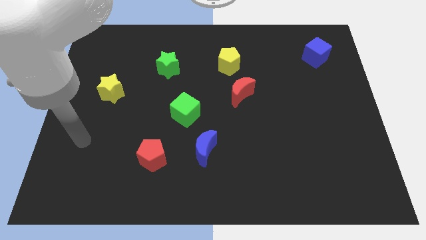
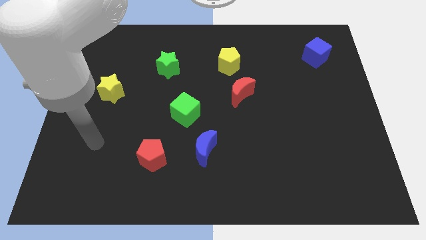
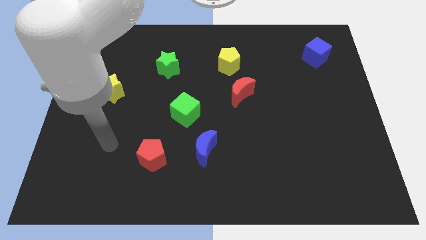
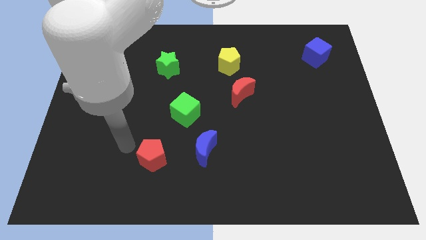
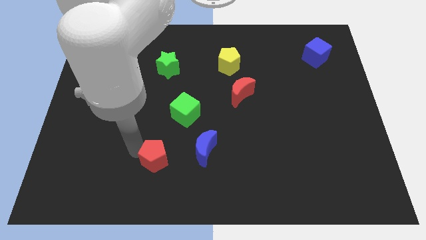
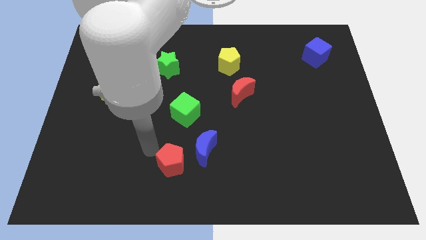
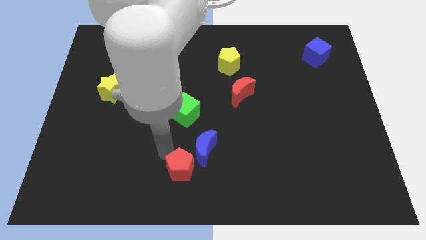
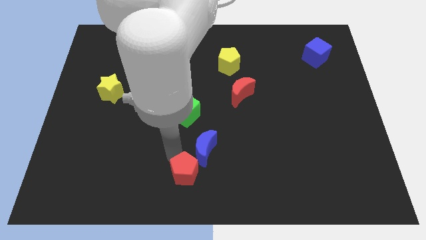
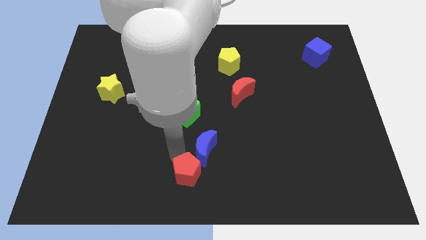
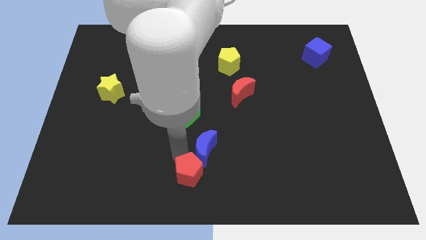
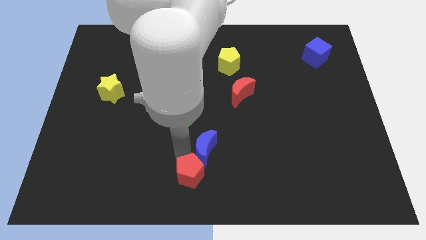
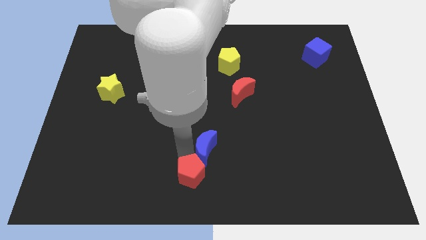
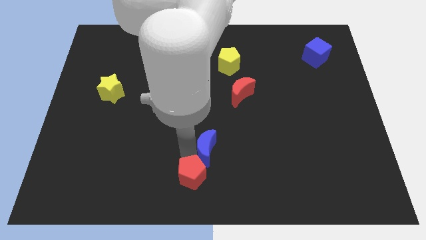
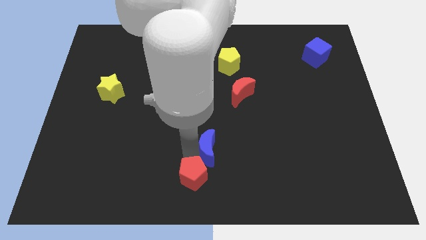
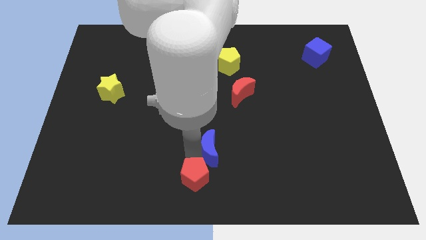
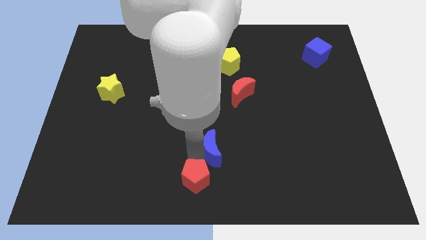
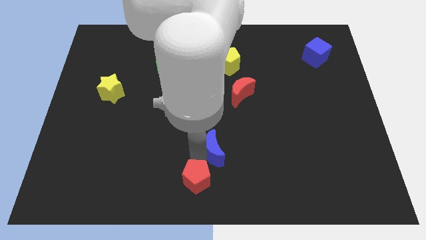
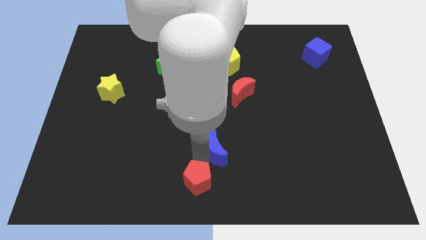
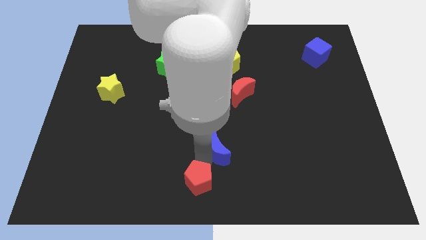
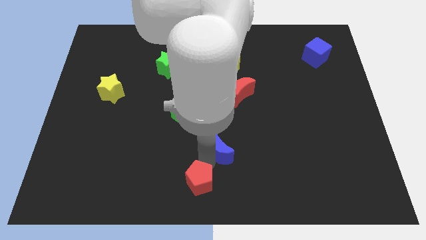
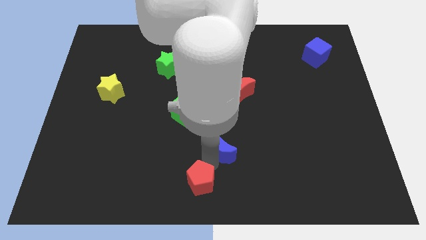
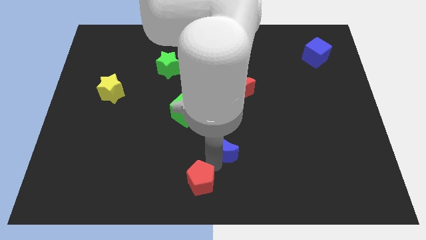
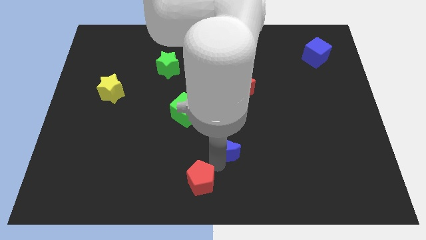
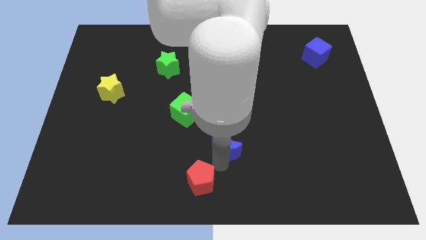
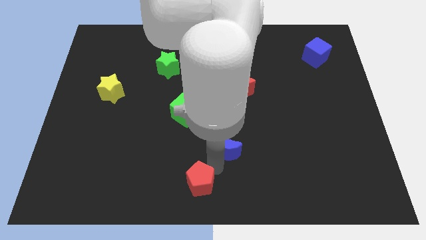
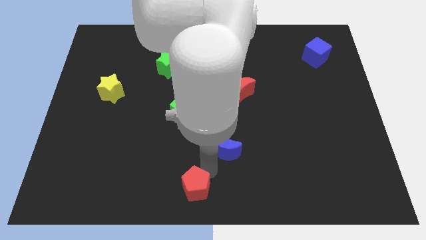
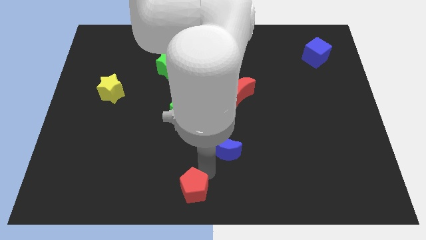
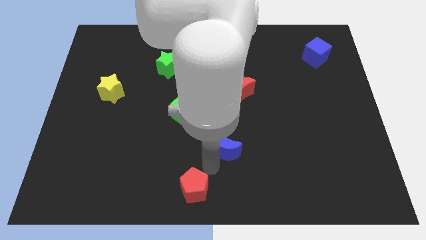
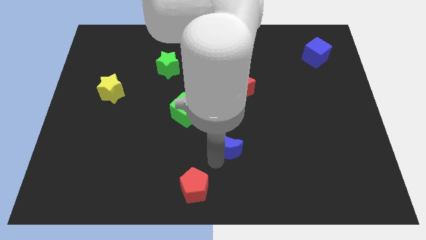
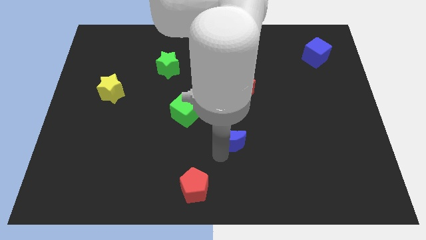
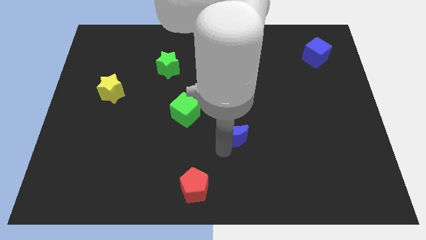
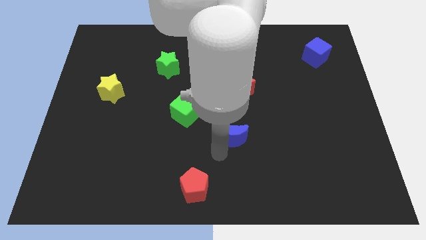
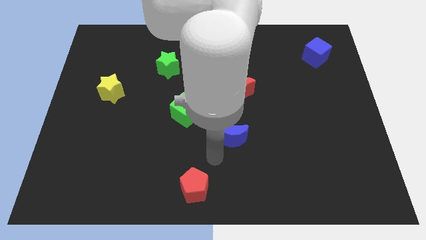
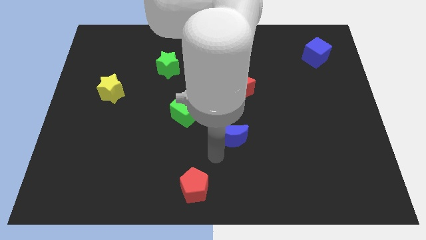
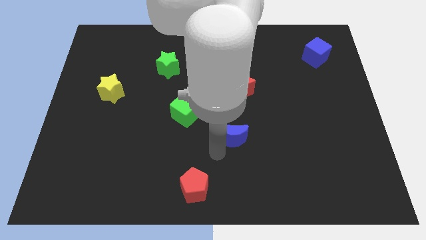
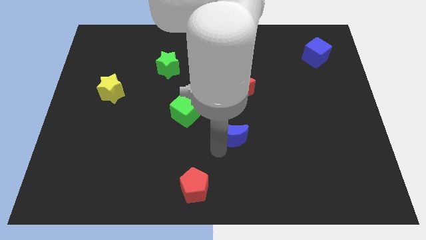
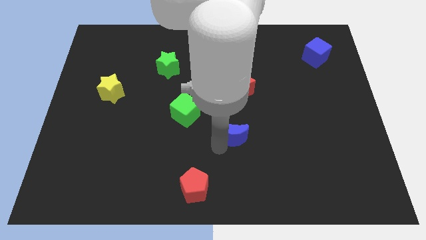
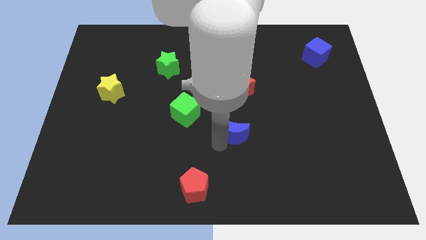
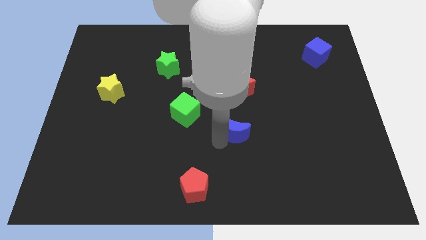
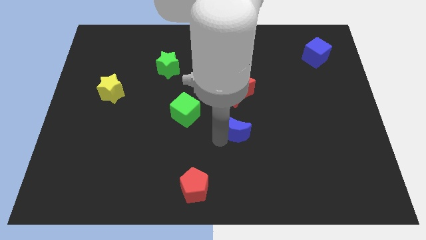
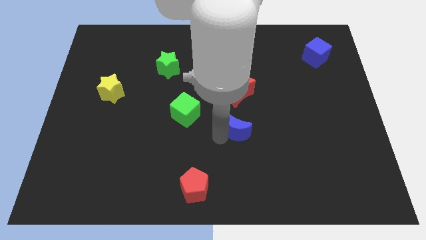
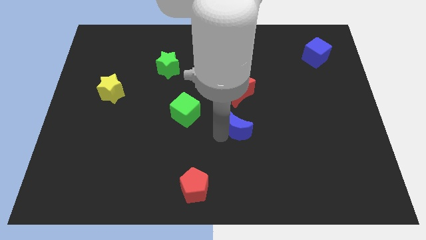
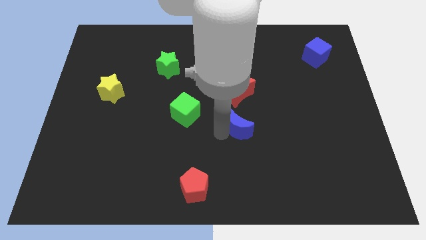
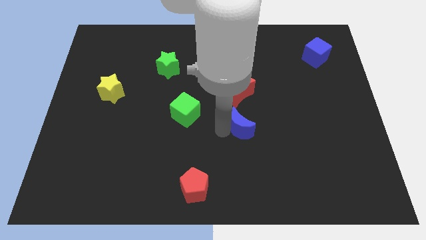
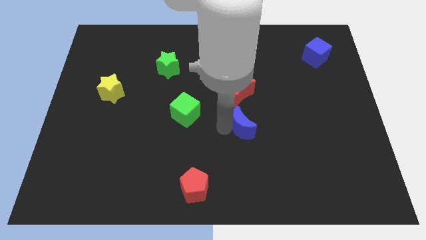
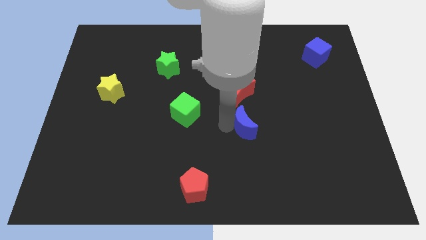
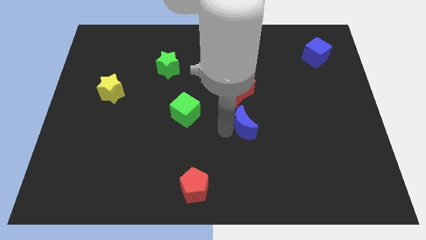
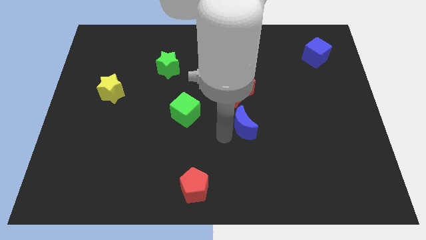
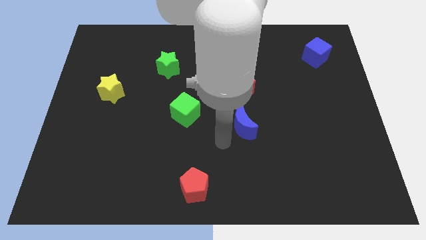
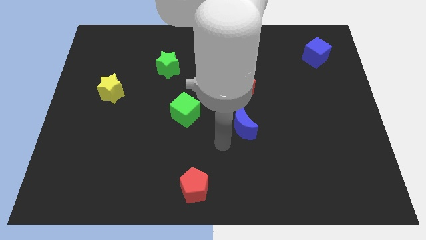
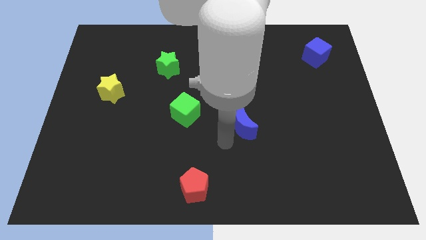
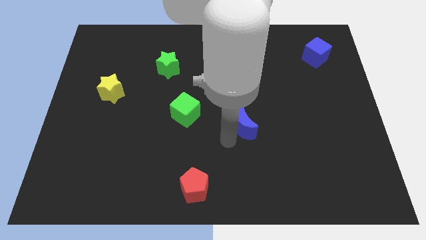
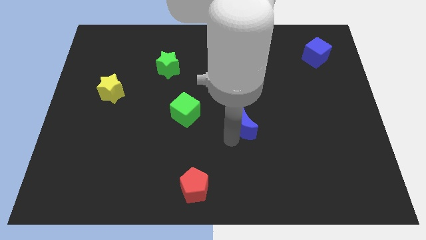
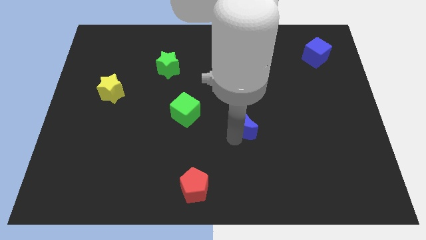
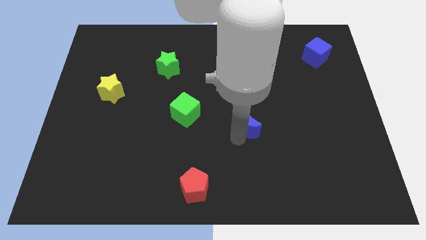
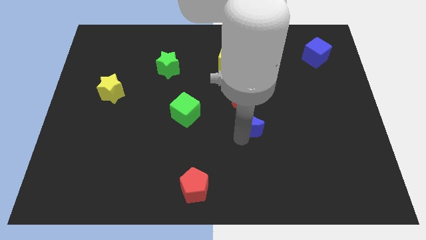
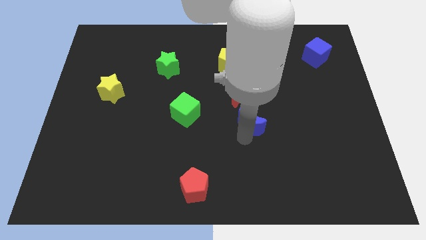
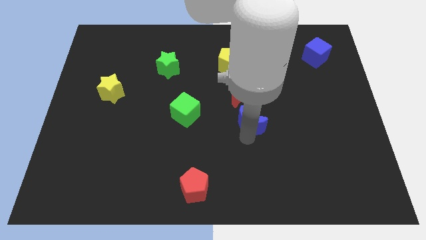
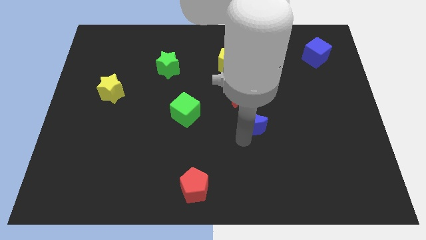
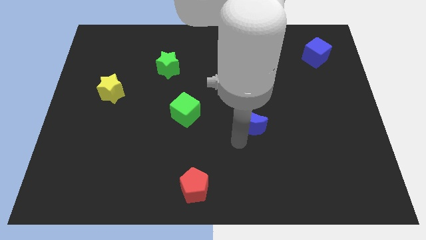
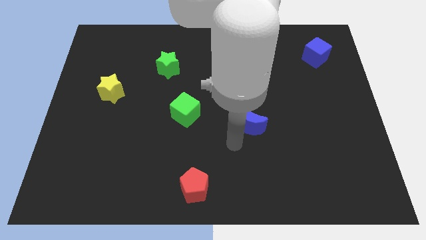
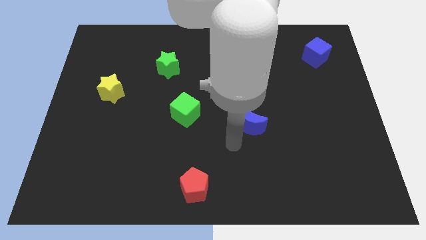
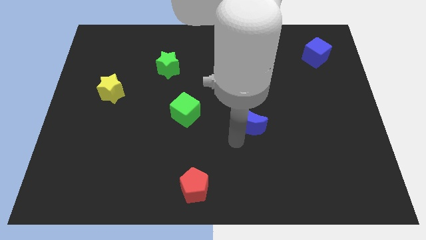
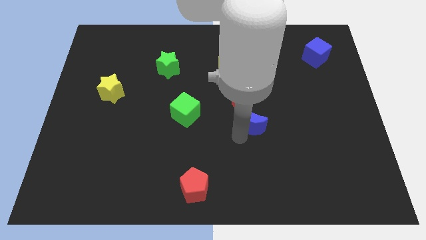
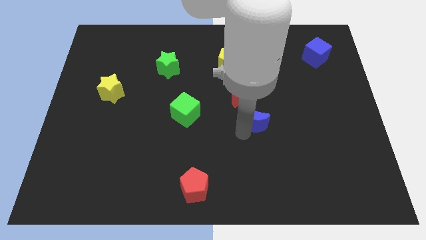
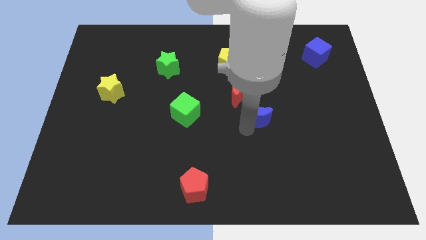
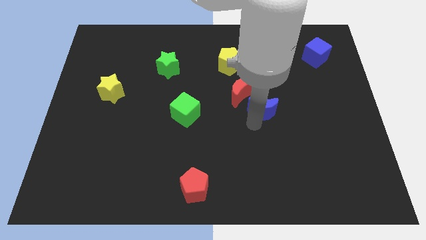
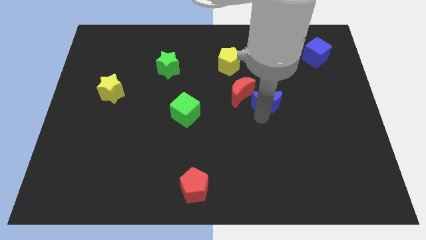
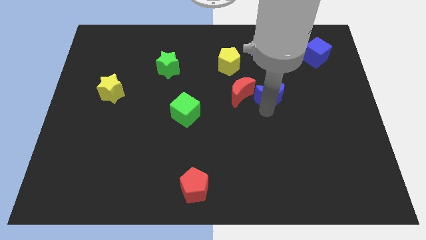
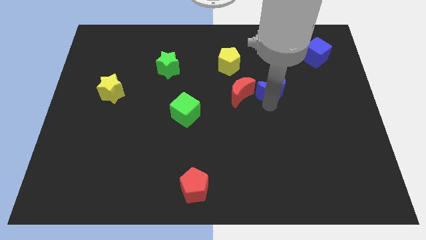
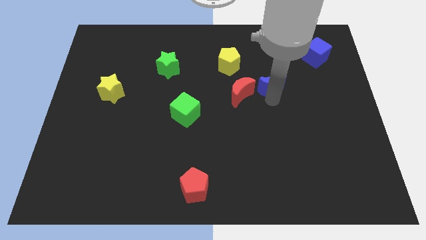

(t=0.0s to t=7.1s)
put the blue moon diagonally up and to the right of the red moon
